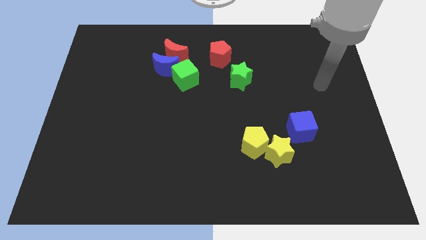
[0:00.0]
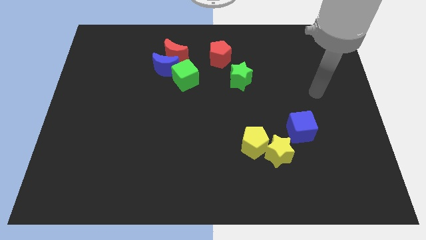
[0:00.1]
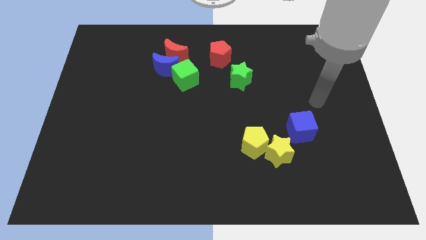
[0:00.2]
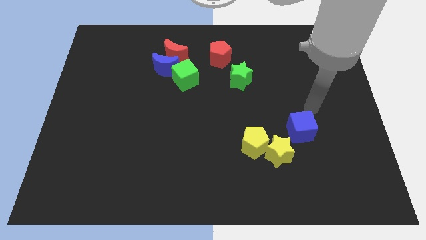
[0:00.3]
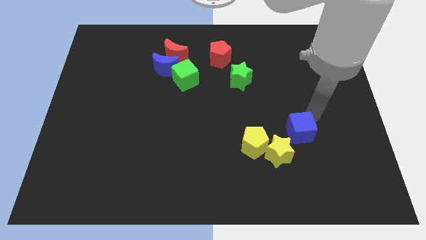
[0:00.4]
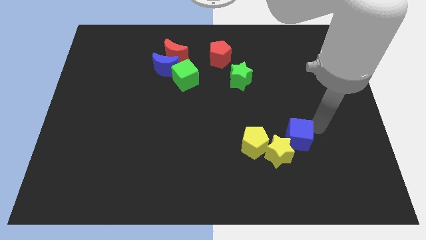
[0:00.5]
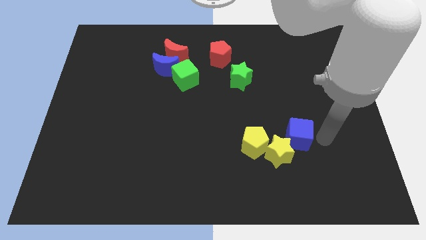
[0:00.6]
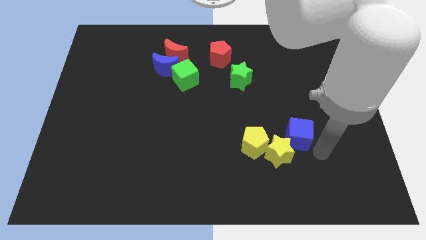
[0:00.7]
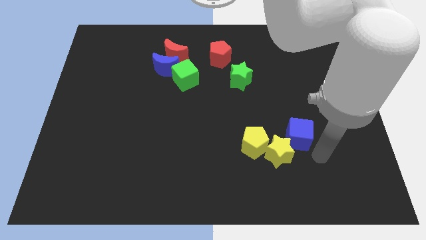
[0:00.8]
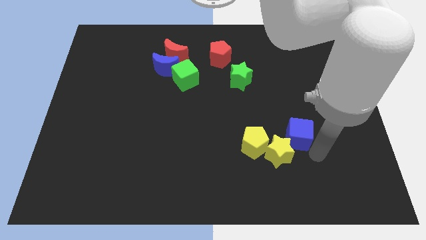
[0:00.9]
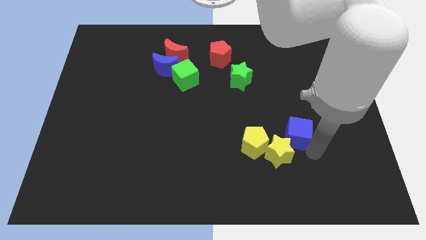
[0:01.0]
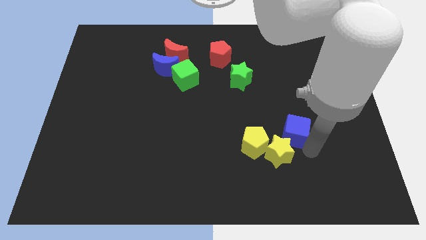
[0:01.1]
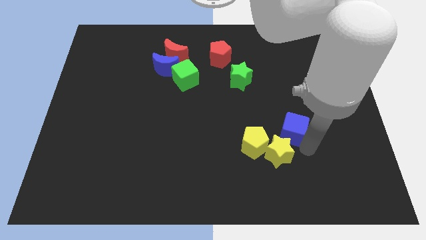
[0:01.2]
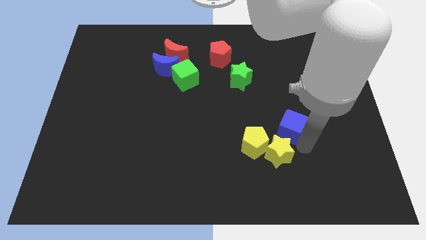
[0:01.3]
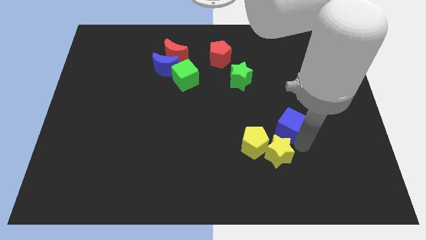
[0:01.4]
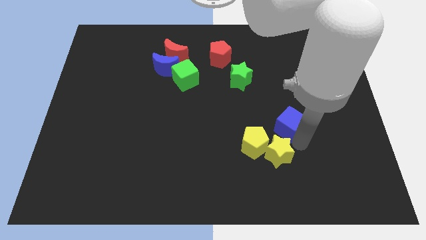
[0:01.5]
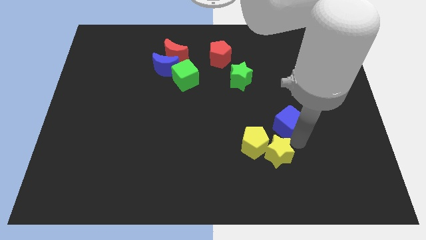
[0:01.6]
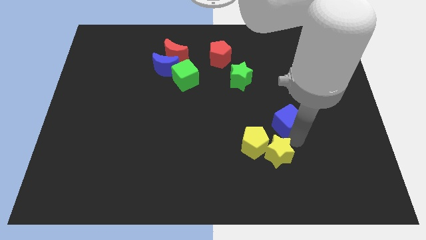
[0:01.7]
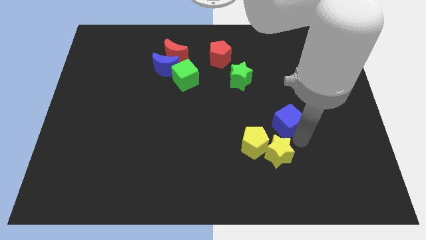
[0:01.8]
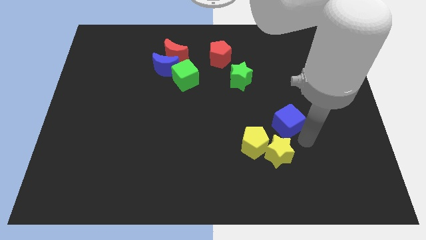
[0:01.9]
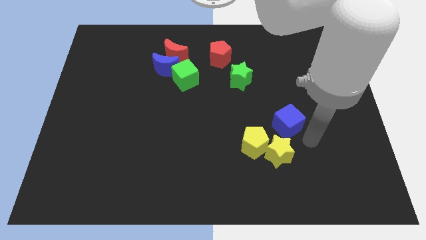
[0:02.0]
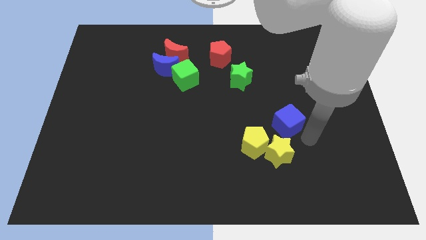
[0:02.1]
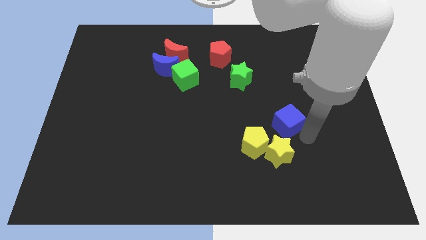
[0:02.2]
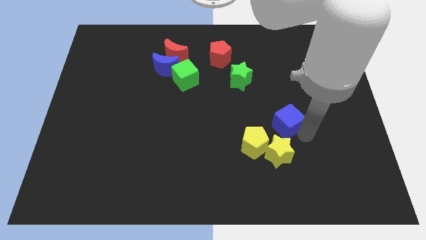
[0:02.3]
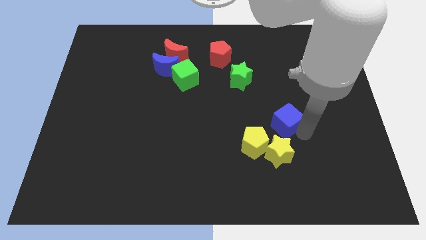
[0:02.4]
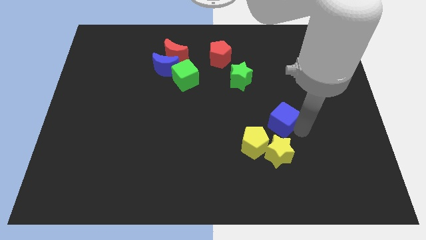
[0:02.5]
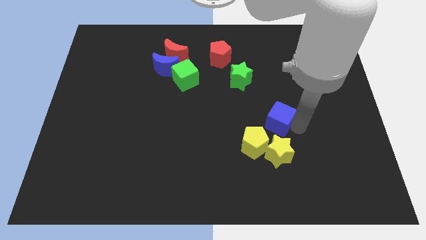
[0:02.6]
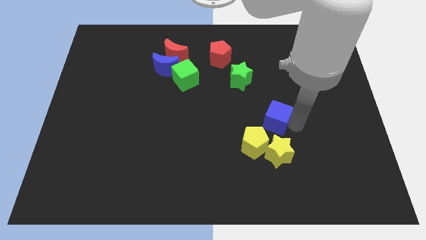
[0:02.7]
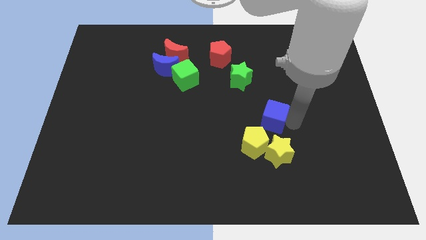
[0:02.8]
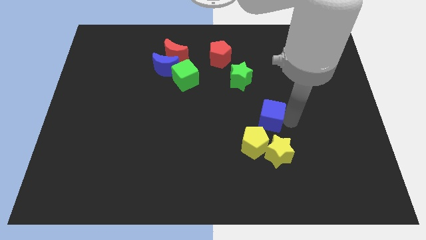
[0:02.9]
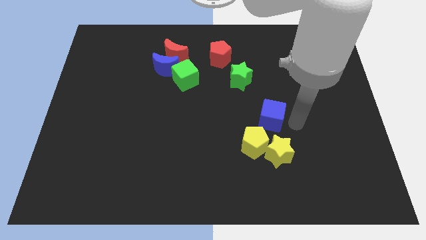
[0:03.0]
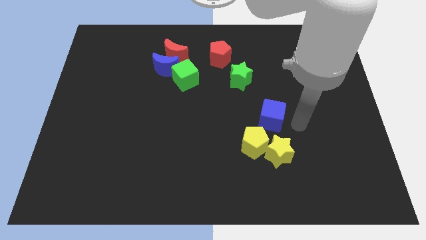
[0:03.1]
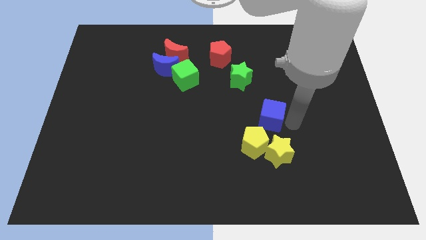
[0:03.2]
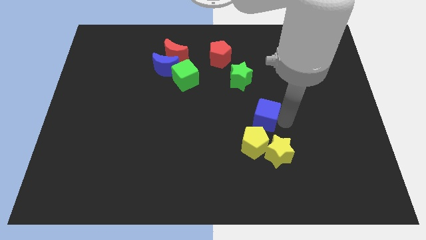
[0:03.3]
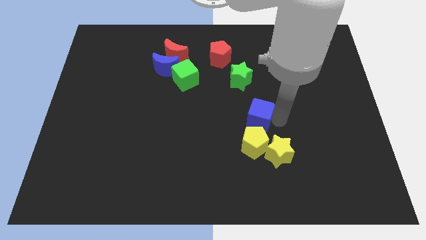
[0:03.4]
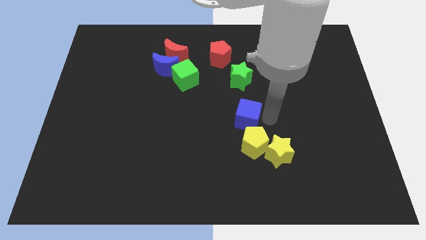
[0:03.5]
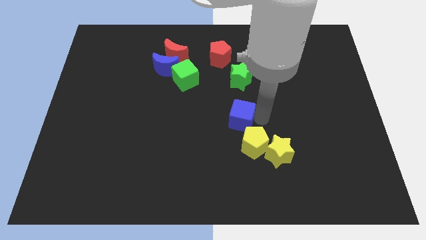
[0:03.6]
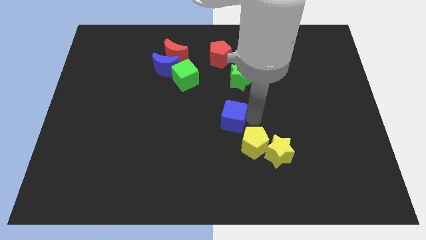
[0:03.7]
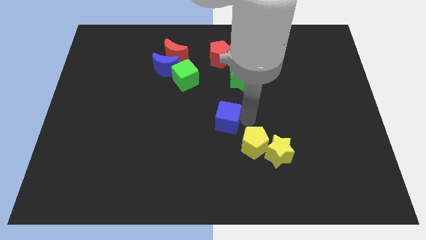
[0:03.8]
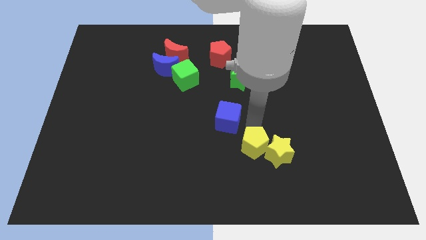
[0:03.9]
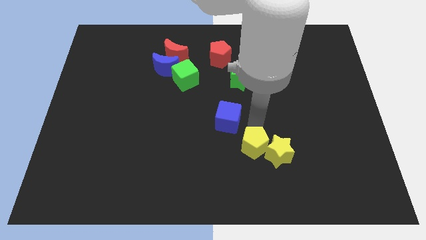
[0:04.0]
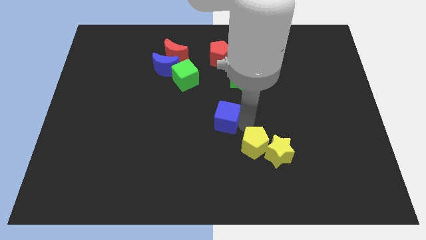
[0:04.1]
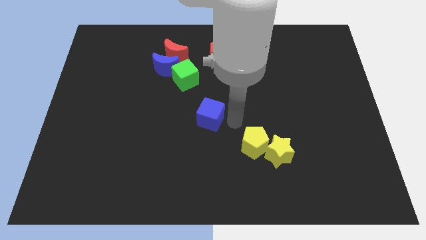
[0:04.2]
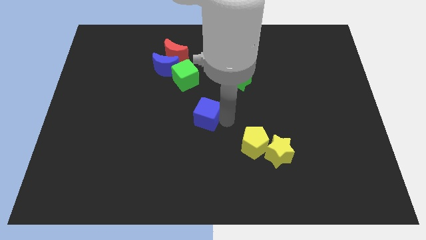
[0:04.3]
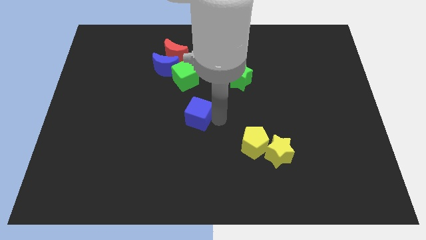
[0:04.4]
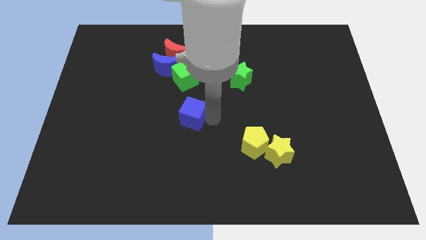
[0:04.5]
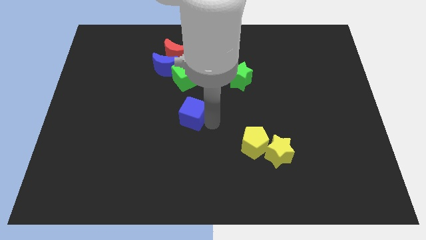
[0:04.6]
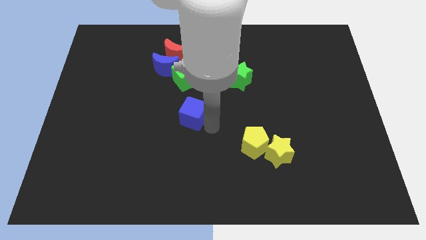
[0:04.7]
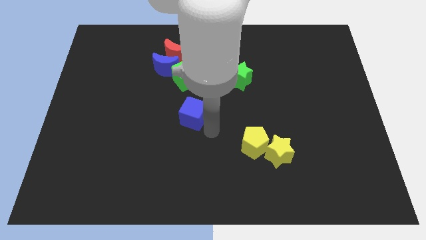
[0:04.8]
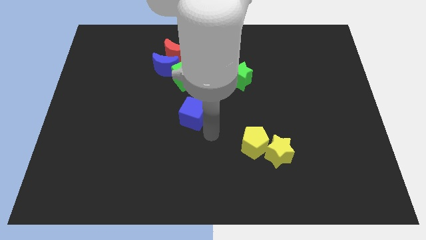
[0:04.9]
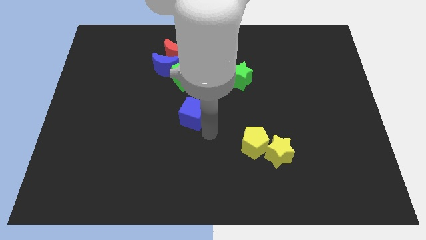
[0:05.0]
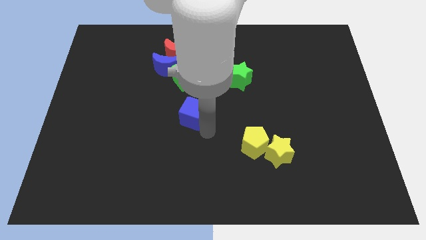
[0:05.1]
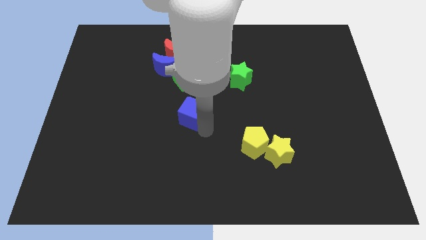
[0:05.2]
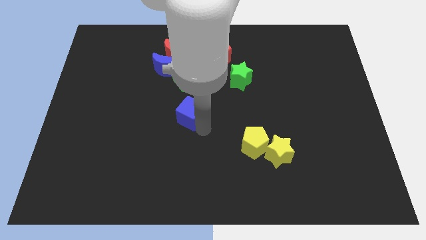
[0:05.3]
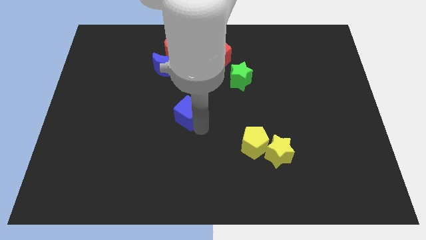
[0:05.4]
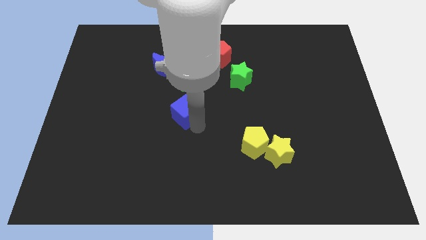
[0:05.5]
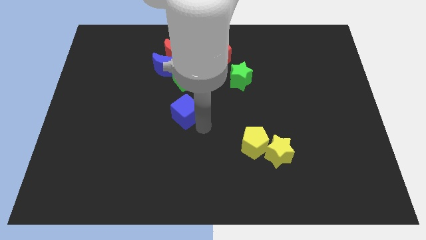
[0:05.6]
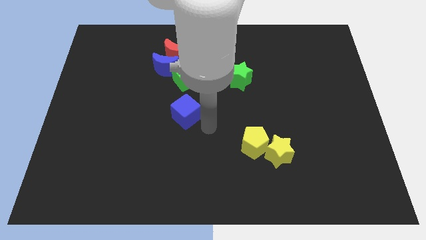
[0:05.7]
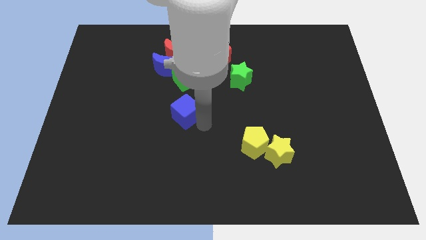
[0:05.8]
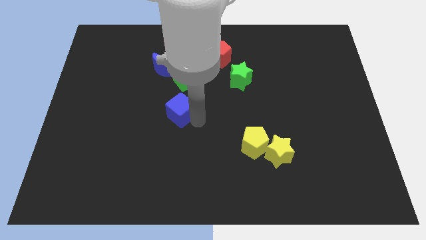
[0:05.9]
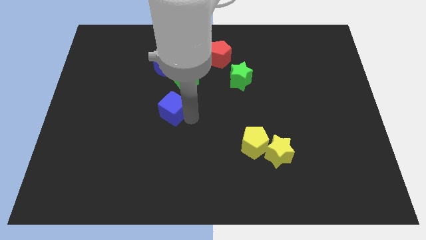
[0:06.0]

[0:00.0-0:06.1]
slide the blue cube to the bottom side of the blue moon

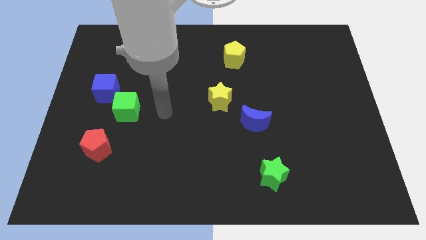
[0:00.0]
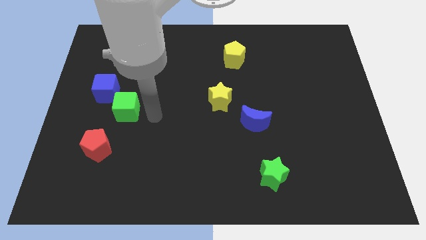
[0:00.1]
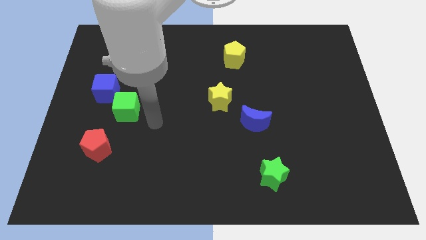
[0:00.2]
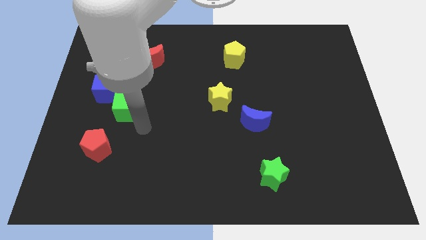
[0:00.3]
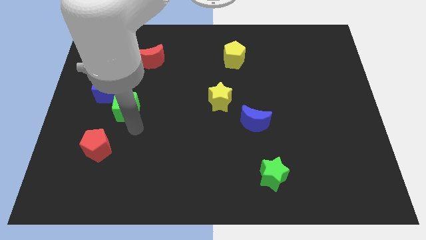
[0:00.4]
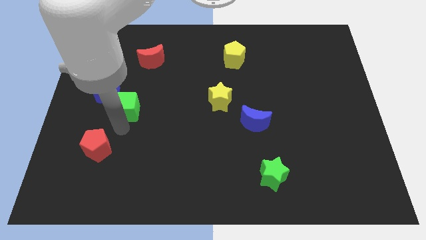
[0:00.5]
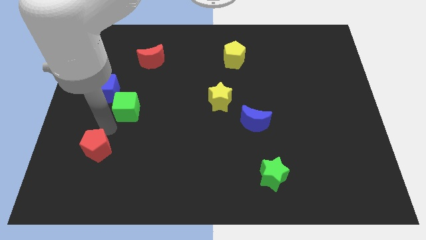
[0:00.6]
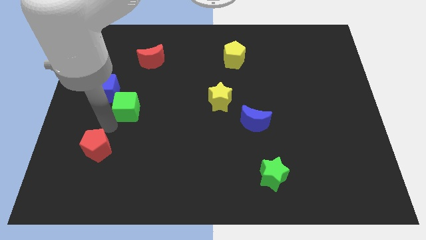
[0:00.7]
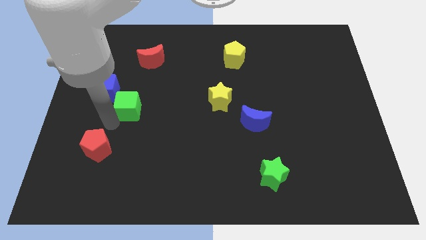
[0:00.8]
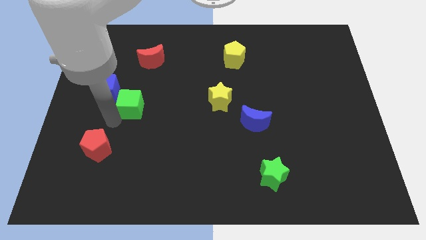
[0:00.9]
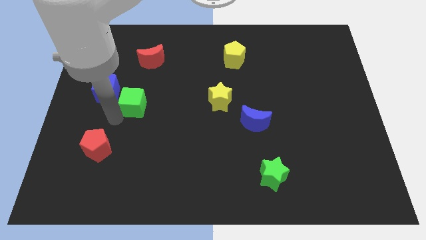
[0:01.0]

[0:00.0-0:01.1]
push the green cube to the bottom side of the red moon

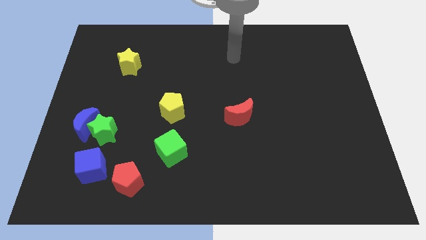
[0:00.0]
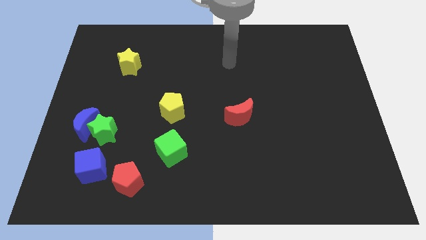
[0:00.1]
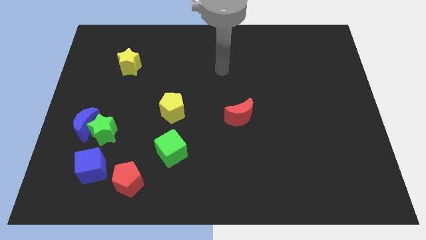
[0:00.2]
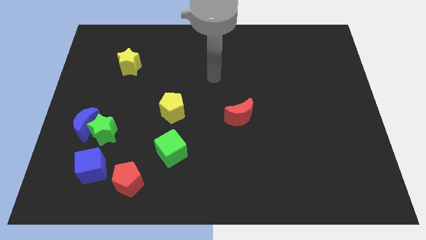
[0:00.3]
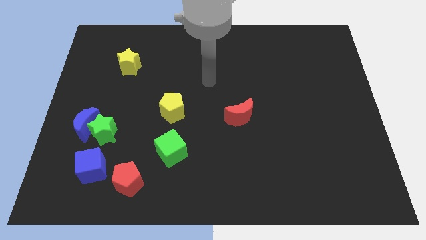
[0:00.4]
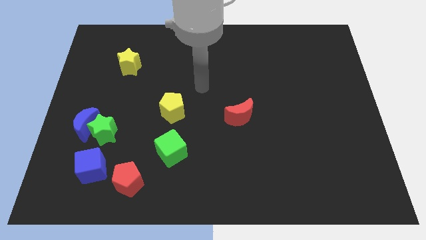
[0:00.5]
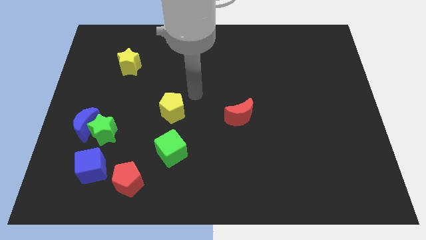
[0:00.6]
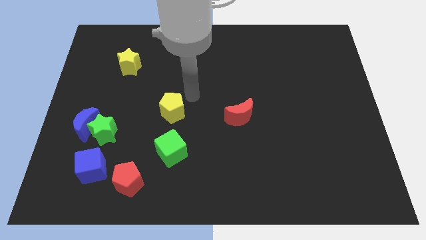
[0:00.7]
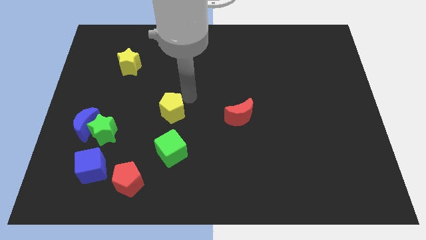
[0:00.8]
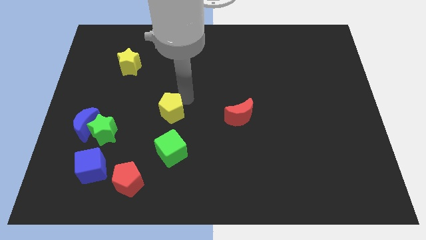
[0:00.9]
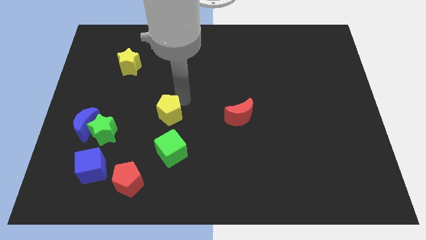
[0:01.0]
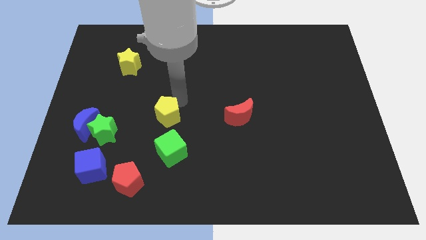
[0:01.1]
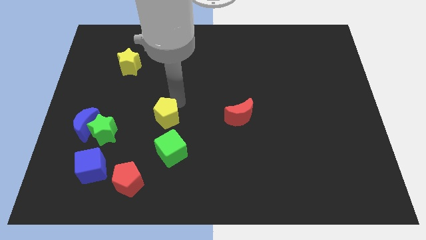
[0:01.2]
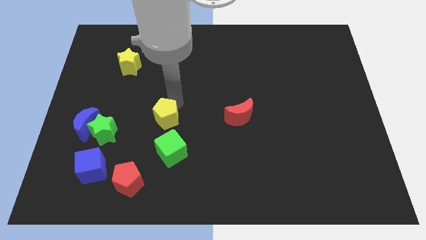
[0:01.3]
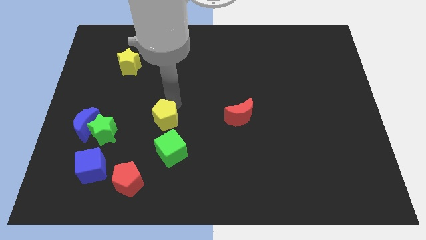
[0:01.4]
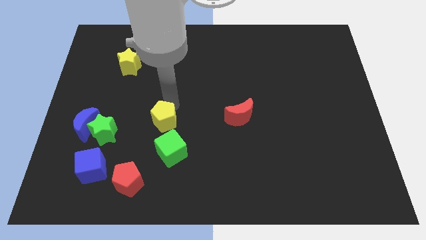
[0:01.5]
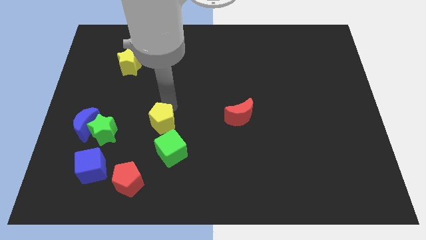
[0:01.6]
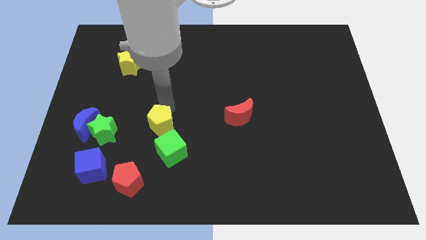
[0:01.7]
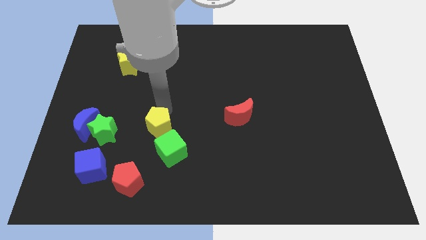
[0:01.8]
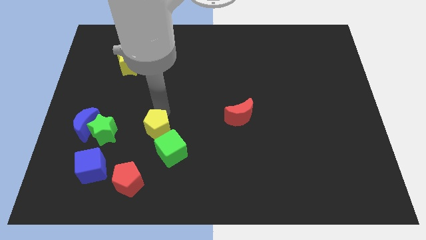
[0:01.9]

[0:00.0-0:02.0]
slide the yellow pentagon to the top side of the red pentagon
